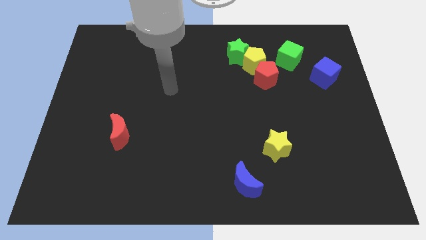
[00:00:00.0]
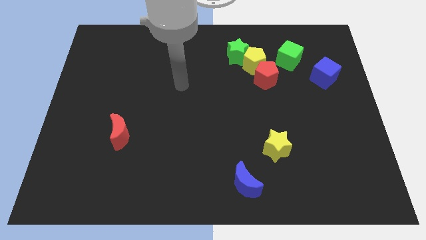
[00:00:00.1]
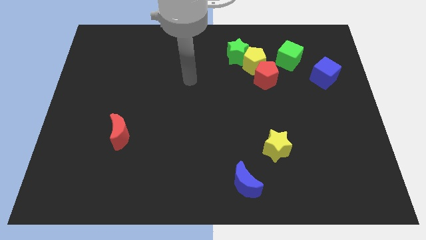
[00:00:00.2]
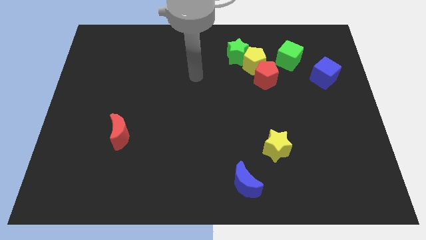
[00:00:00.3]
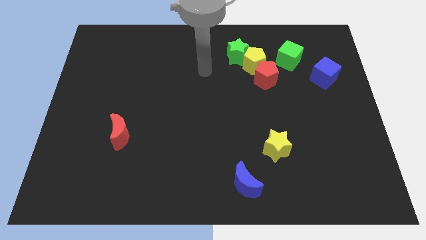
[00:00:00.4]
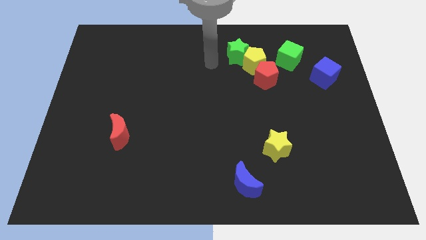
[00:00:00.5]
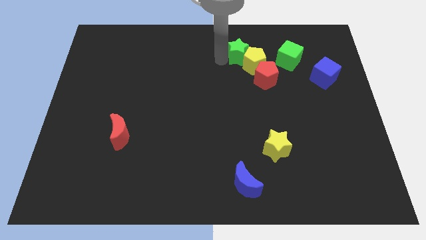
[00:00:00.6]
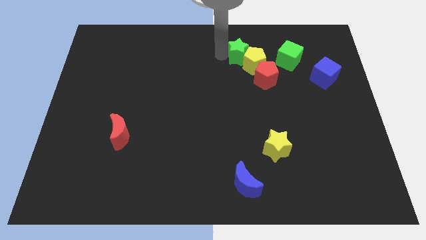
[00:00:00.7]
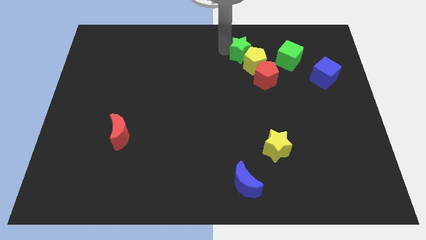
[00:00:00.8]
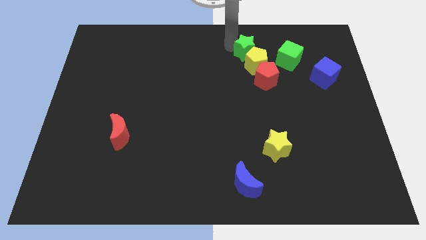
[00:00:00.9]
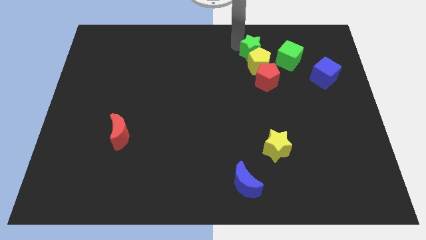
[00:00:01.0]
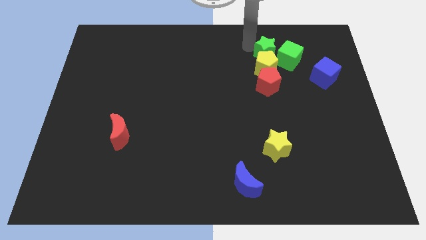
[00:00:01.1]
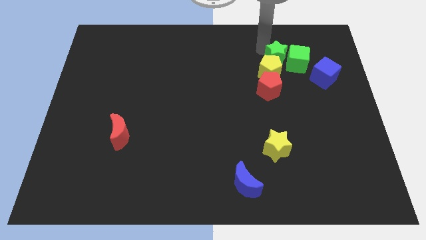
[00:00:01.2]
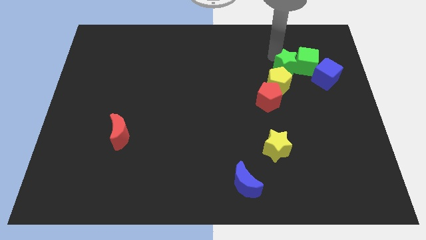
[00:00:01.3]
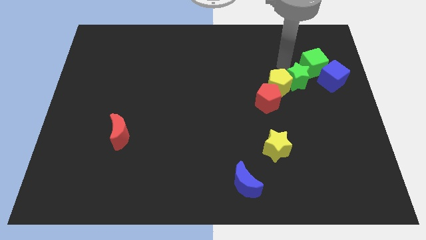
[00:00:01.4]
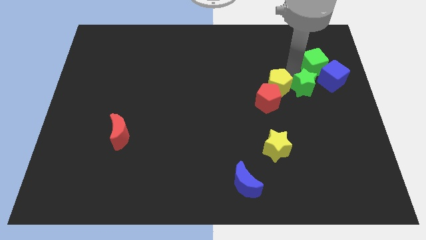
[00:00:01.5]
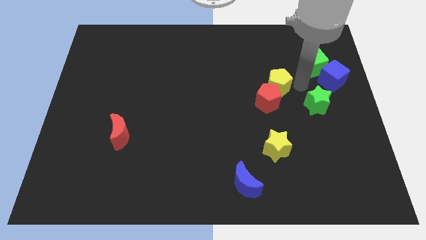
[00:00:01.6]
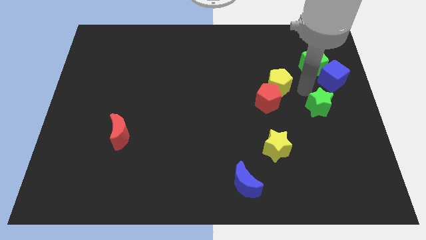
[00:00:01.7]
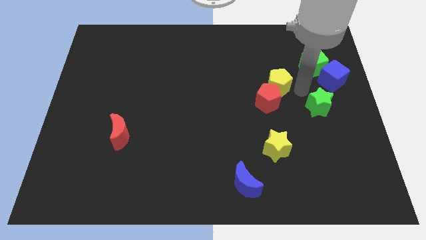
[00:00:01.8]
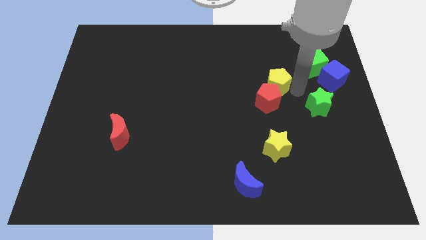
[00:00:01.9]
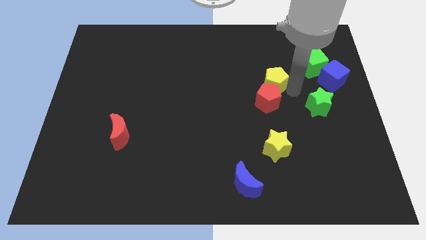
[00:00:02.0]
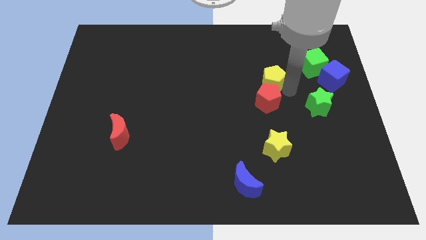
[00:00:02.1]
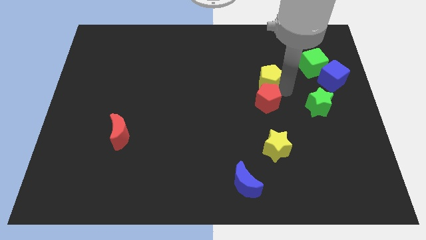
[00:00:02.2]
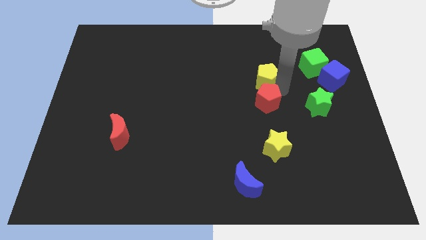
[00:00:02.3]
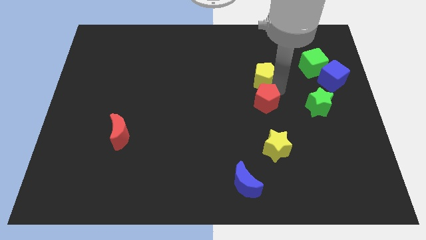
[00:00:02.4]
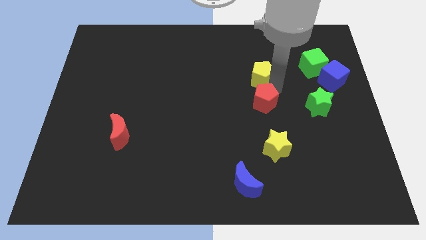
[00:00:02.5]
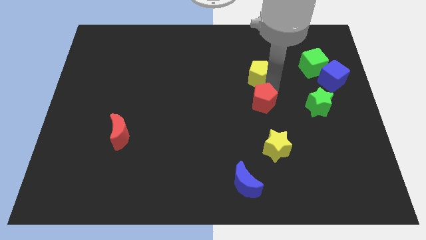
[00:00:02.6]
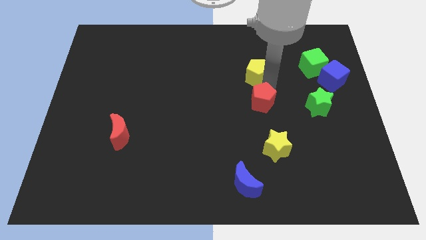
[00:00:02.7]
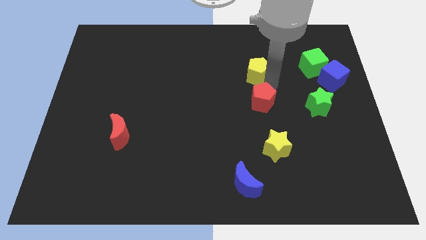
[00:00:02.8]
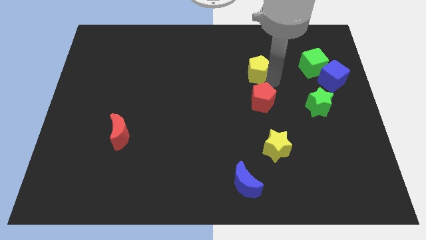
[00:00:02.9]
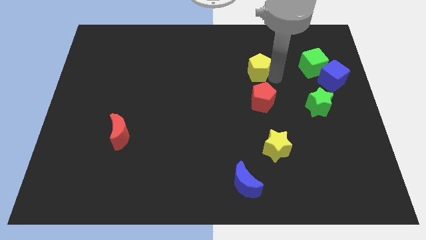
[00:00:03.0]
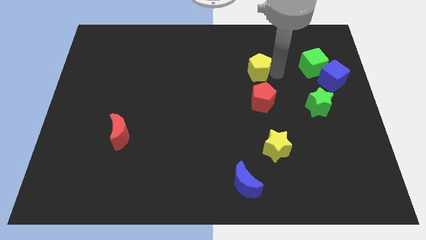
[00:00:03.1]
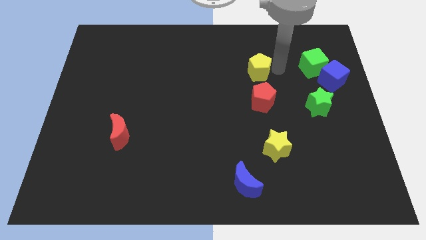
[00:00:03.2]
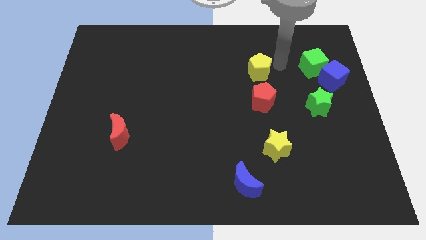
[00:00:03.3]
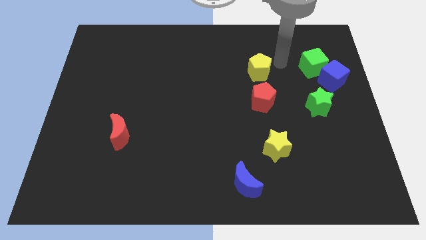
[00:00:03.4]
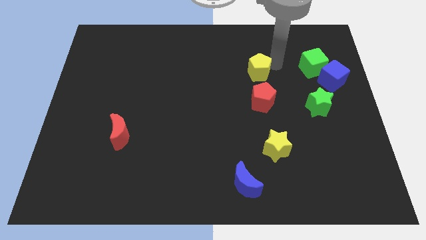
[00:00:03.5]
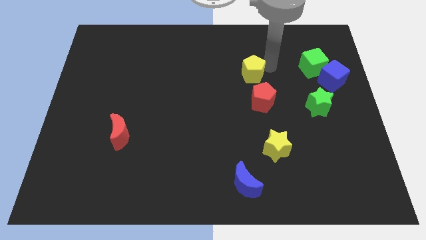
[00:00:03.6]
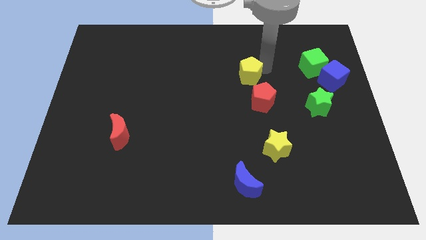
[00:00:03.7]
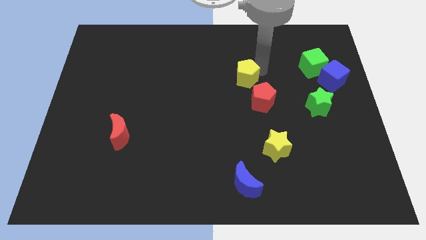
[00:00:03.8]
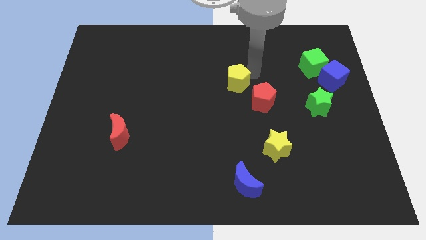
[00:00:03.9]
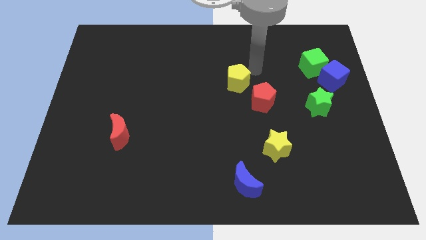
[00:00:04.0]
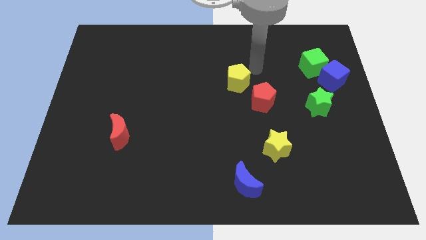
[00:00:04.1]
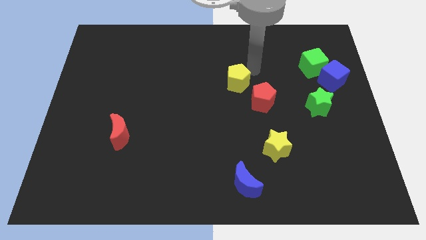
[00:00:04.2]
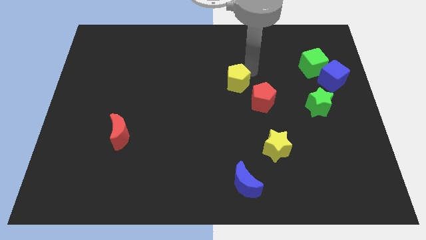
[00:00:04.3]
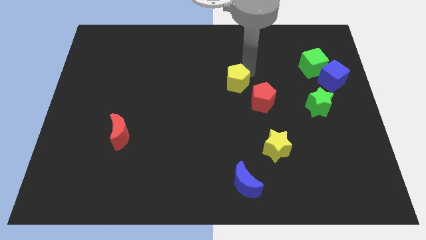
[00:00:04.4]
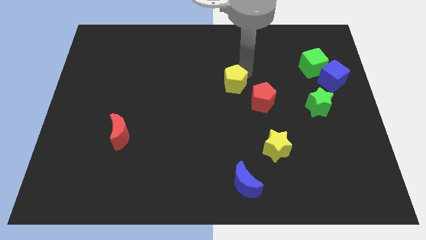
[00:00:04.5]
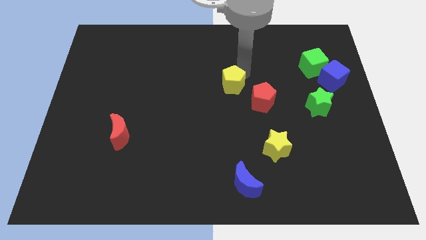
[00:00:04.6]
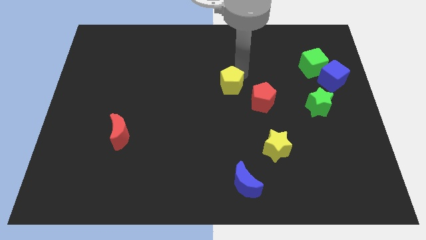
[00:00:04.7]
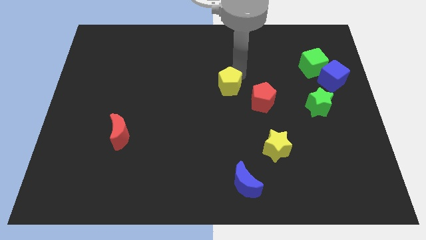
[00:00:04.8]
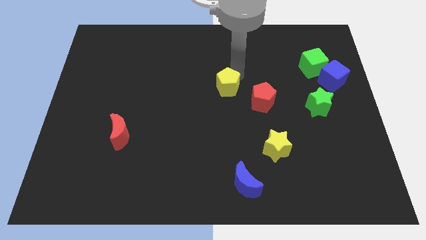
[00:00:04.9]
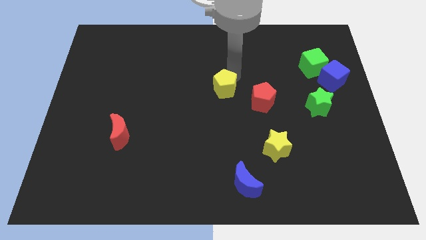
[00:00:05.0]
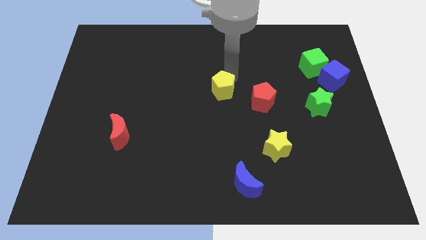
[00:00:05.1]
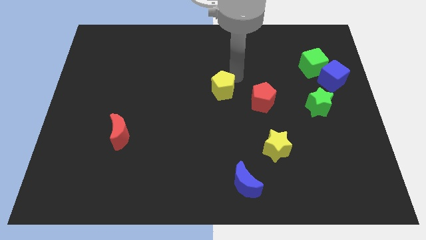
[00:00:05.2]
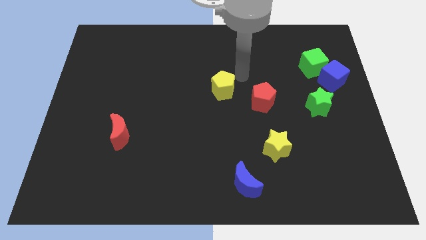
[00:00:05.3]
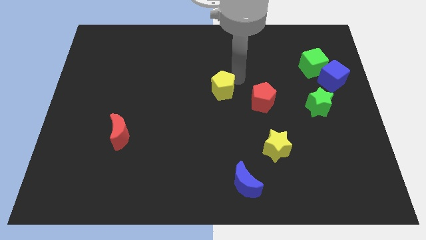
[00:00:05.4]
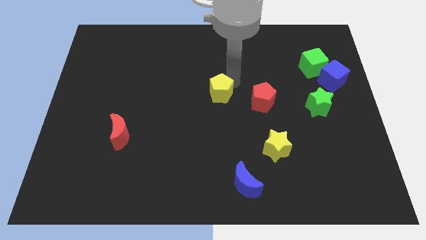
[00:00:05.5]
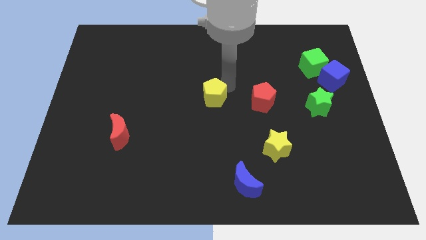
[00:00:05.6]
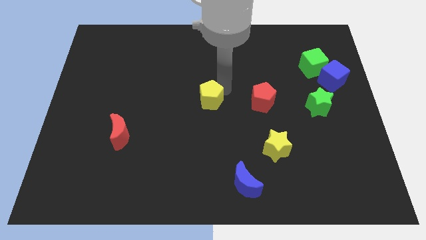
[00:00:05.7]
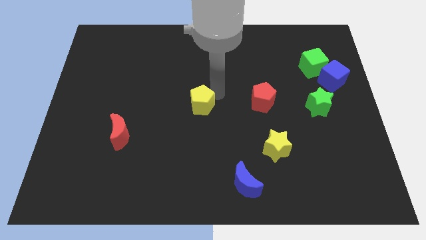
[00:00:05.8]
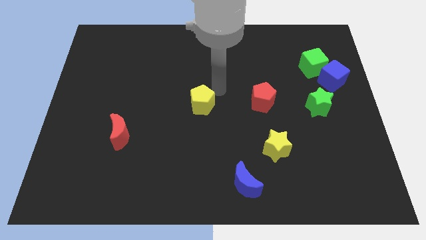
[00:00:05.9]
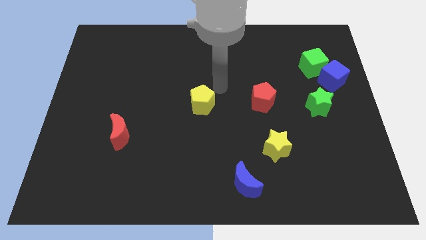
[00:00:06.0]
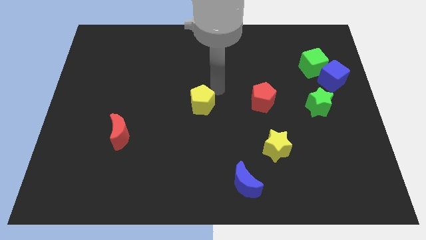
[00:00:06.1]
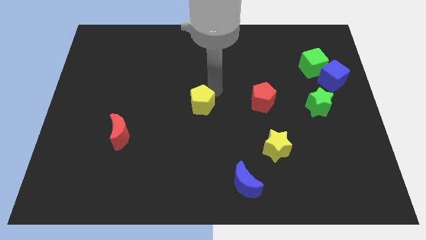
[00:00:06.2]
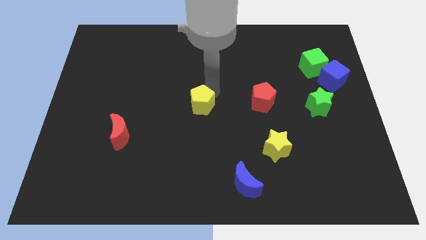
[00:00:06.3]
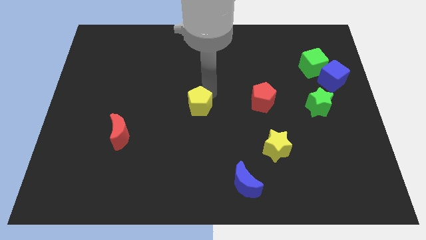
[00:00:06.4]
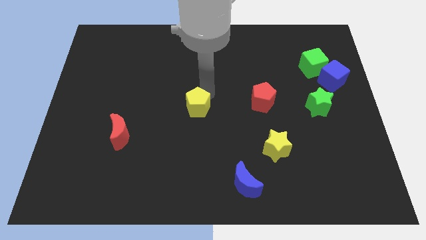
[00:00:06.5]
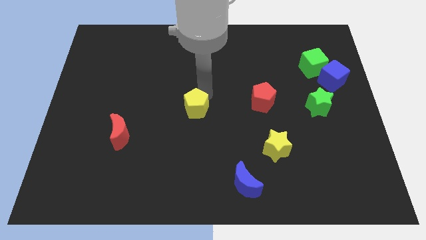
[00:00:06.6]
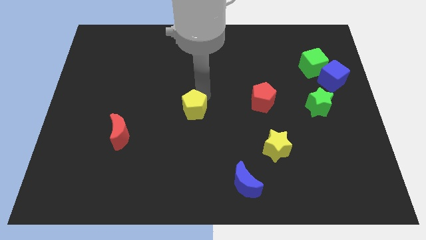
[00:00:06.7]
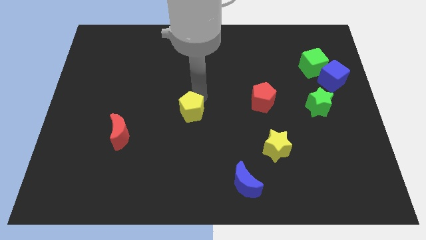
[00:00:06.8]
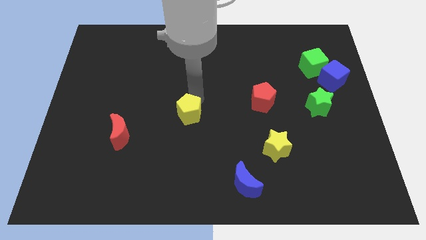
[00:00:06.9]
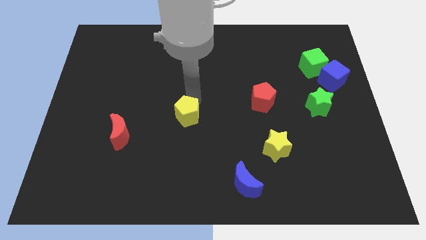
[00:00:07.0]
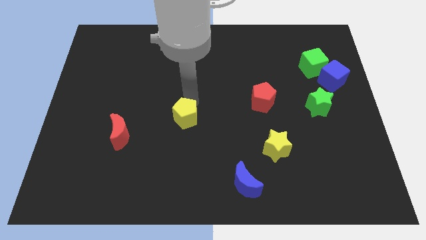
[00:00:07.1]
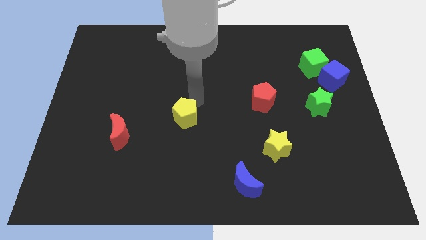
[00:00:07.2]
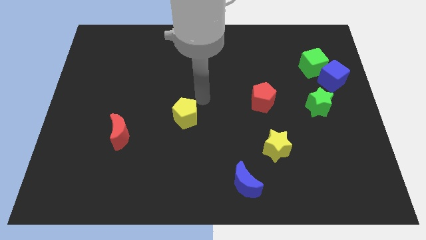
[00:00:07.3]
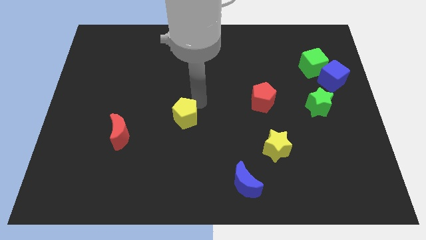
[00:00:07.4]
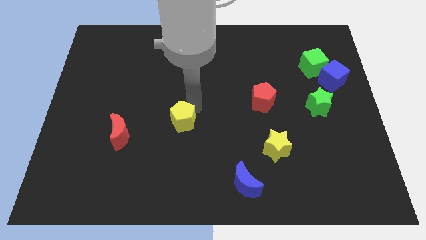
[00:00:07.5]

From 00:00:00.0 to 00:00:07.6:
put the yellow pentagon right of the red moon

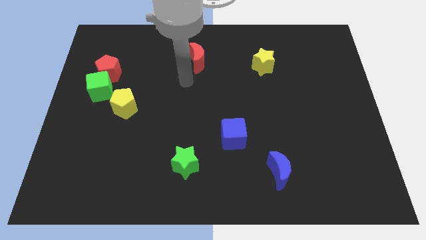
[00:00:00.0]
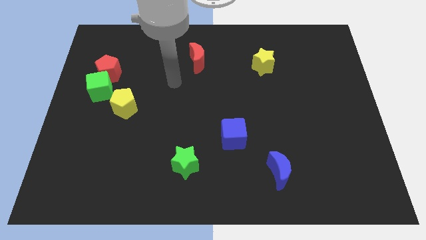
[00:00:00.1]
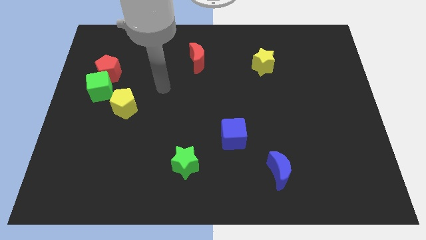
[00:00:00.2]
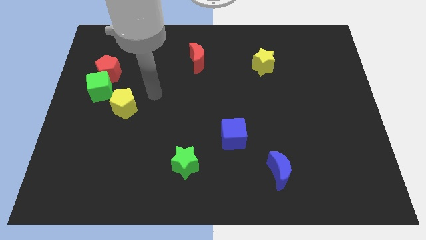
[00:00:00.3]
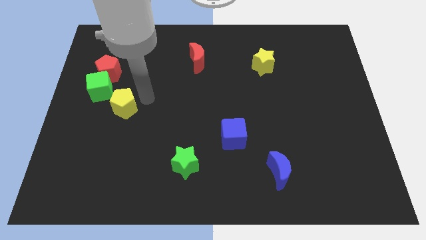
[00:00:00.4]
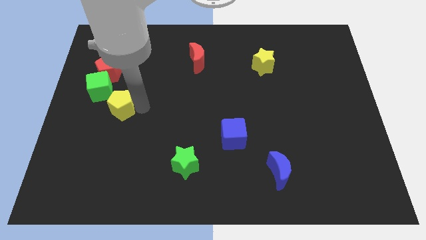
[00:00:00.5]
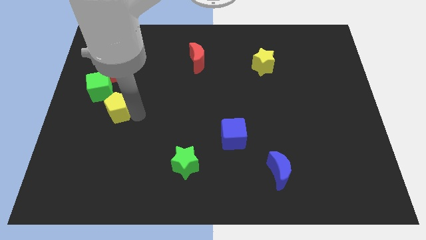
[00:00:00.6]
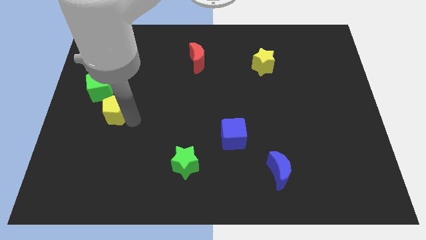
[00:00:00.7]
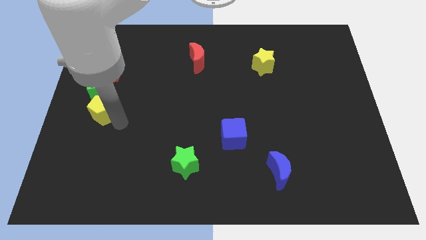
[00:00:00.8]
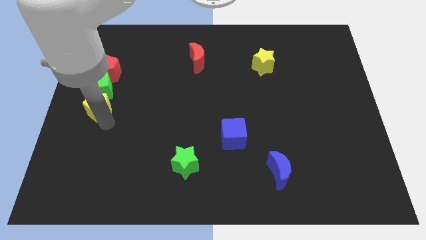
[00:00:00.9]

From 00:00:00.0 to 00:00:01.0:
put the green cube to the top right of the yellow pentagon
